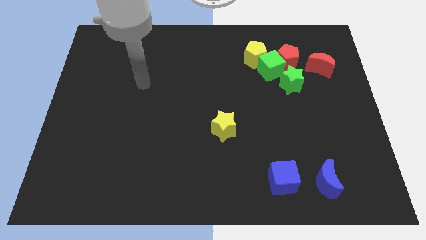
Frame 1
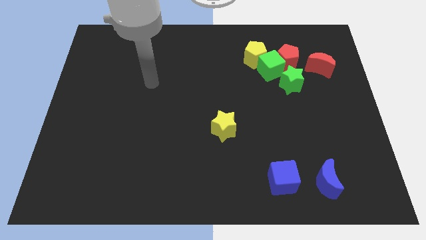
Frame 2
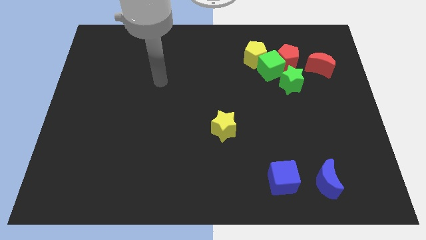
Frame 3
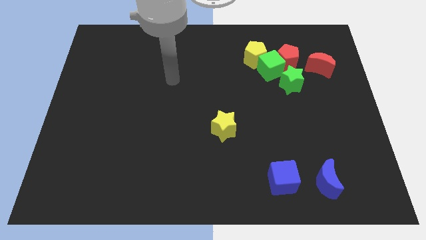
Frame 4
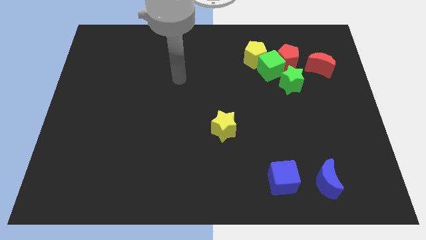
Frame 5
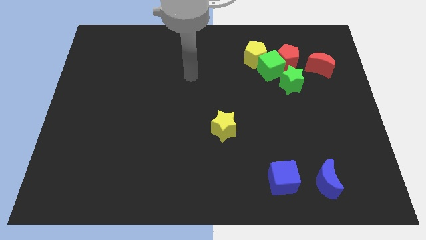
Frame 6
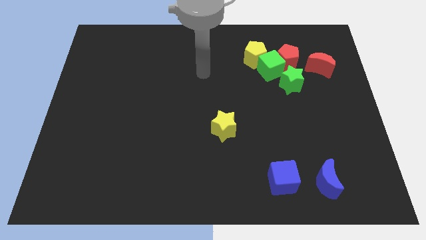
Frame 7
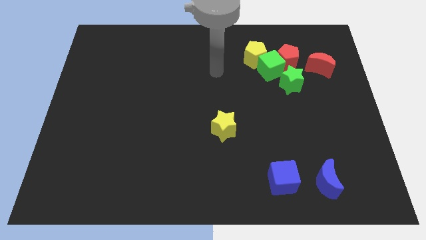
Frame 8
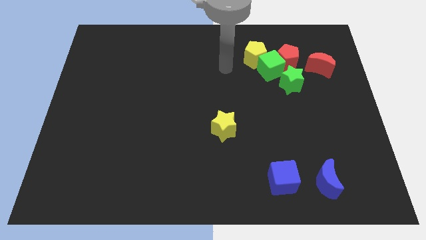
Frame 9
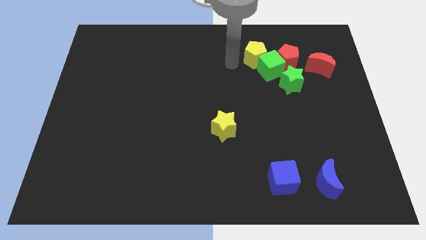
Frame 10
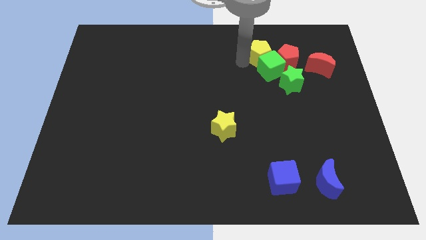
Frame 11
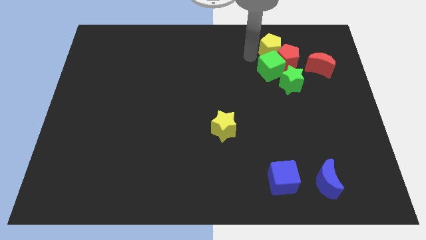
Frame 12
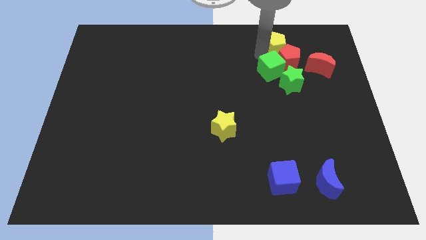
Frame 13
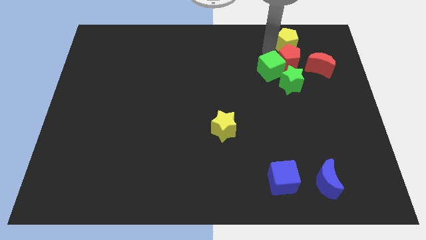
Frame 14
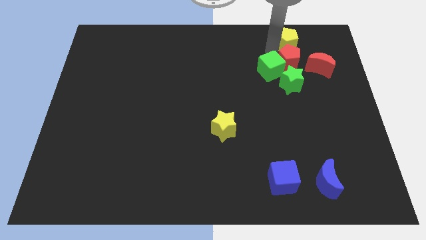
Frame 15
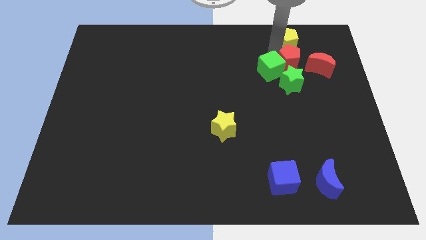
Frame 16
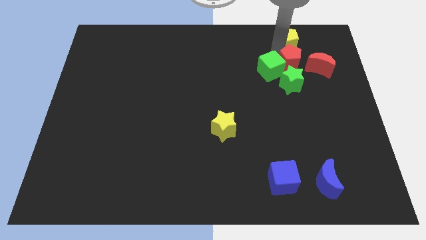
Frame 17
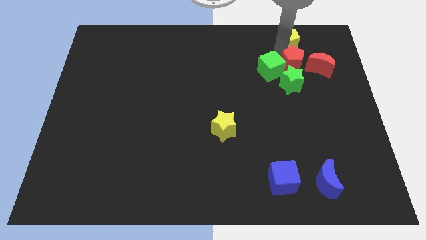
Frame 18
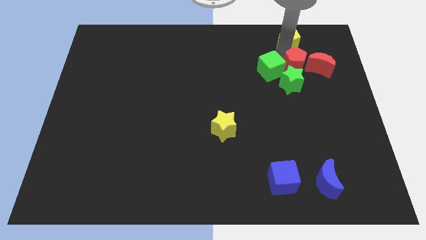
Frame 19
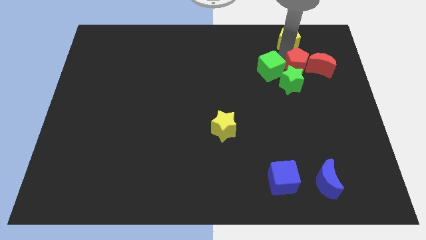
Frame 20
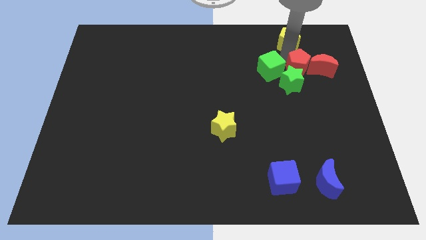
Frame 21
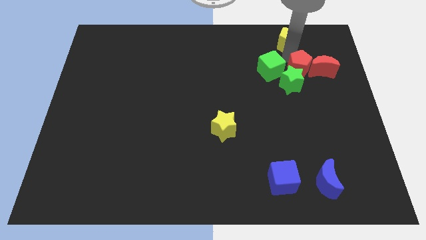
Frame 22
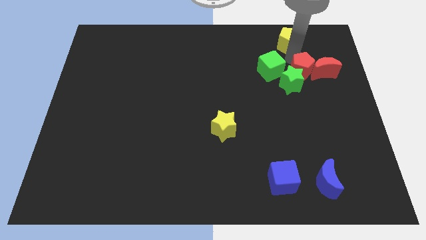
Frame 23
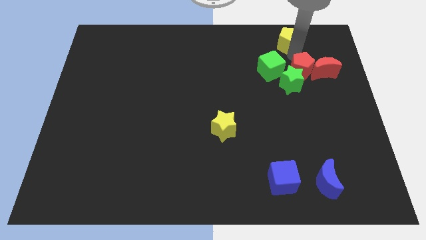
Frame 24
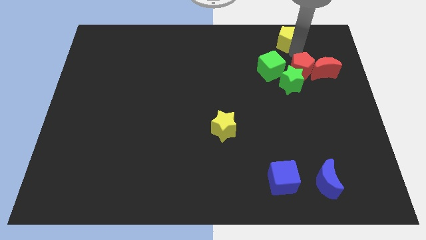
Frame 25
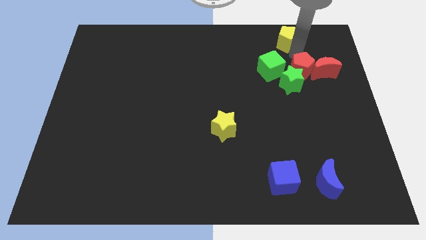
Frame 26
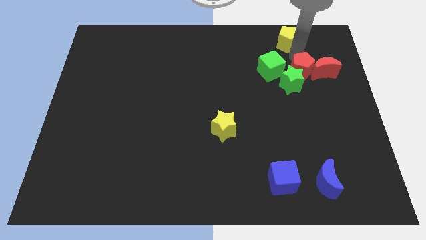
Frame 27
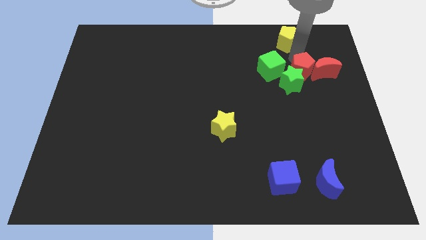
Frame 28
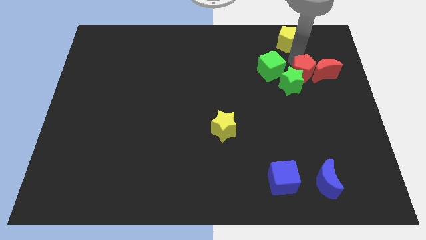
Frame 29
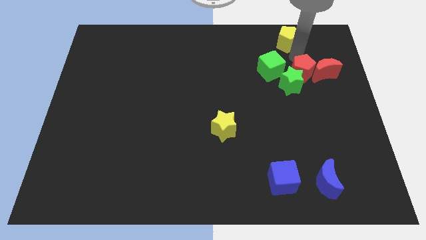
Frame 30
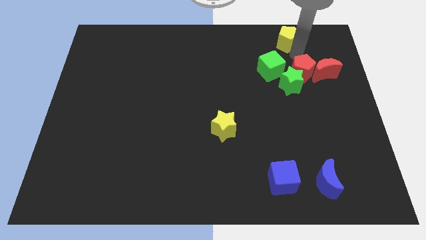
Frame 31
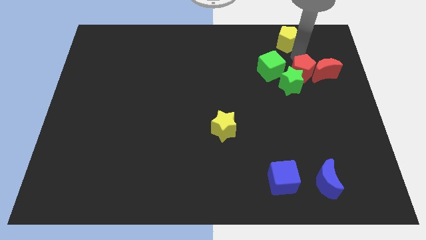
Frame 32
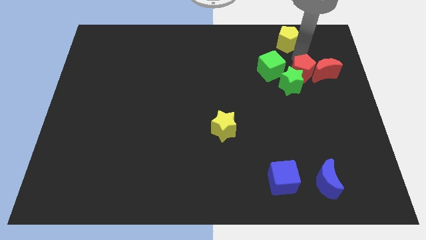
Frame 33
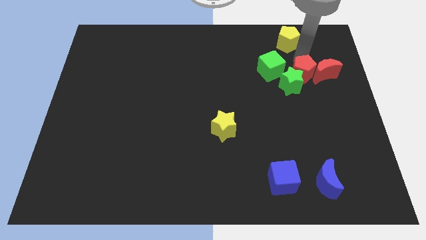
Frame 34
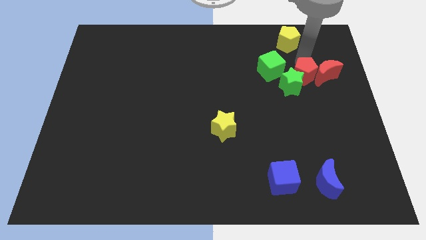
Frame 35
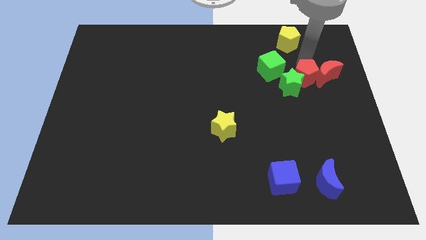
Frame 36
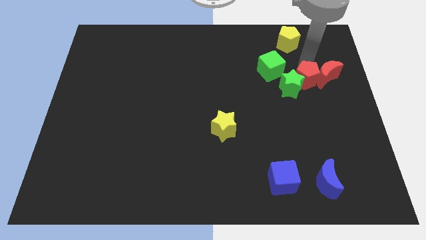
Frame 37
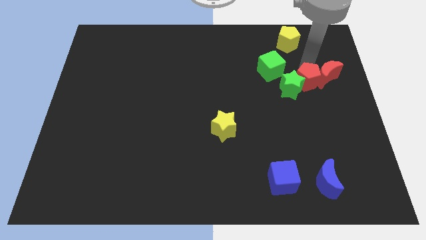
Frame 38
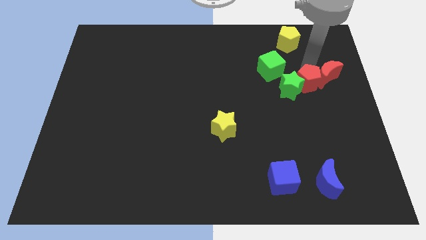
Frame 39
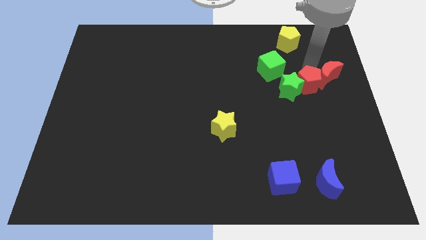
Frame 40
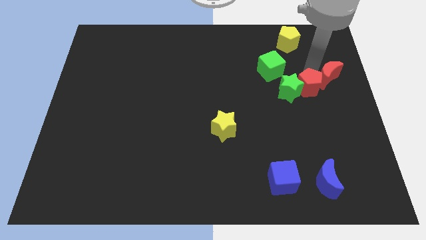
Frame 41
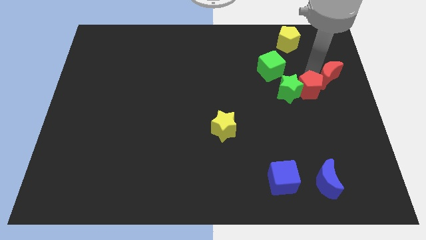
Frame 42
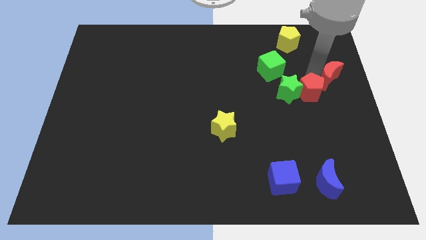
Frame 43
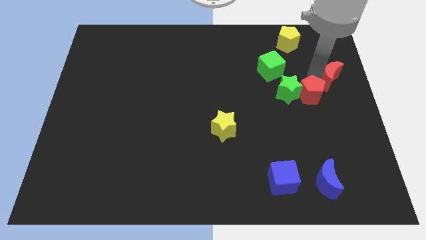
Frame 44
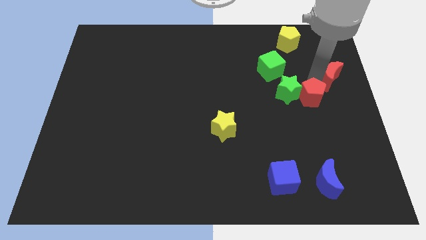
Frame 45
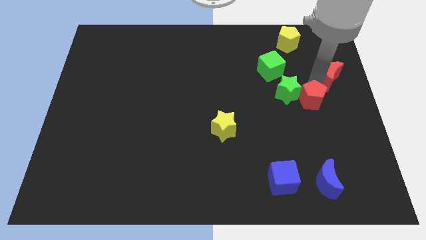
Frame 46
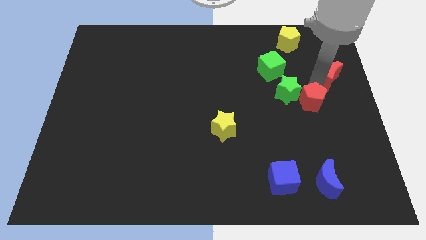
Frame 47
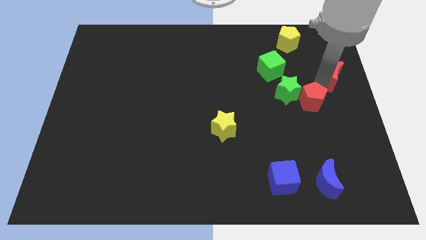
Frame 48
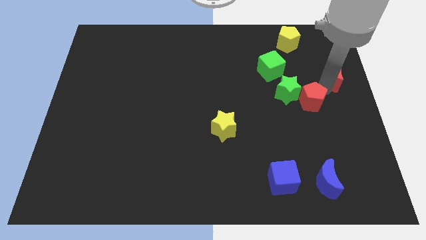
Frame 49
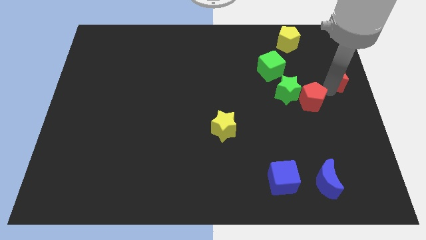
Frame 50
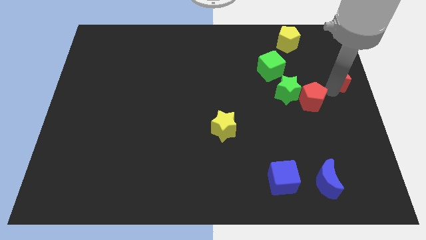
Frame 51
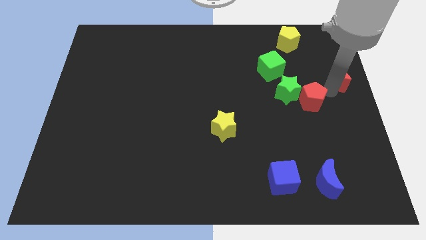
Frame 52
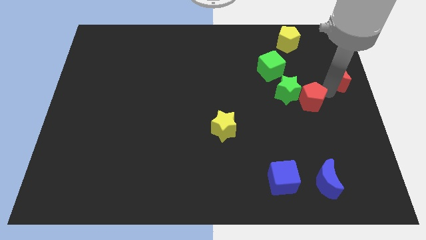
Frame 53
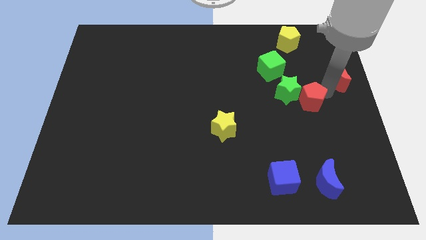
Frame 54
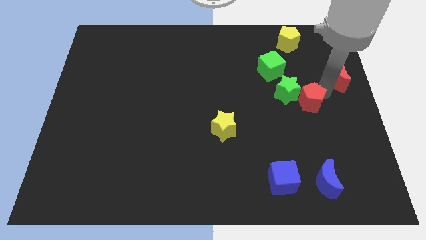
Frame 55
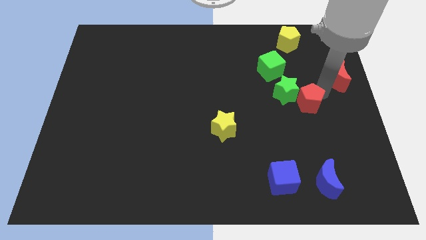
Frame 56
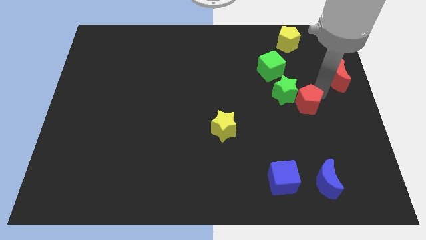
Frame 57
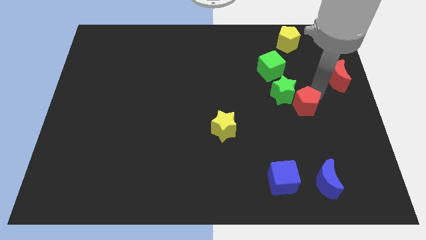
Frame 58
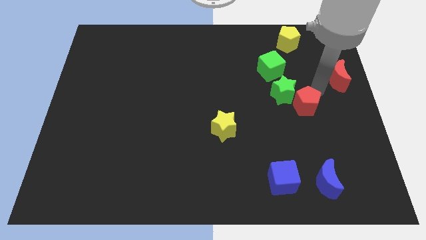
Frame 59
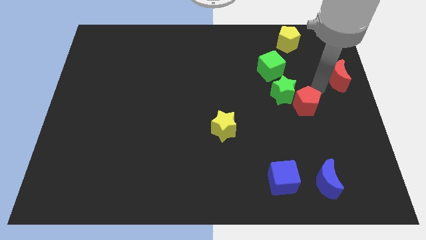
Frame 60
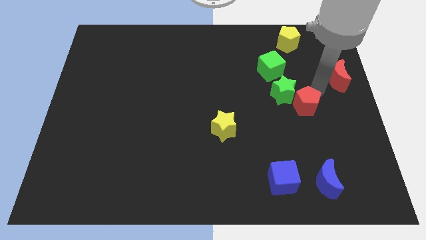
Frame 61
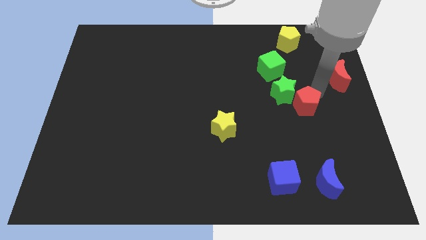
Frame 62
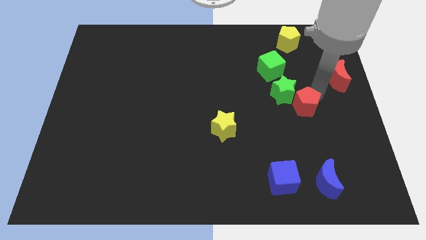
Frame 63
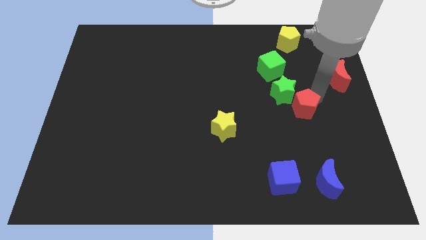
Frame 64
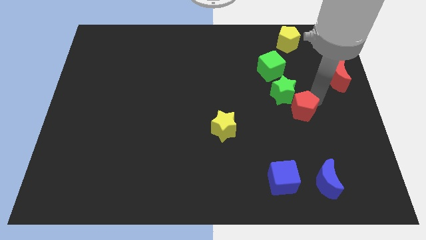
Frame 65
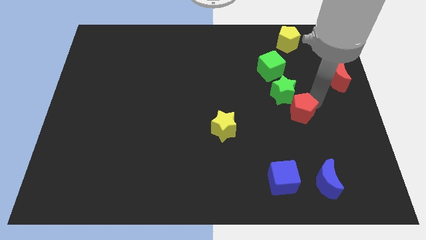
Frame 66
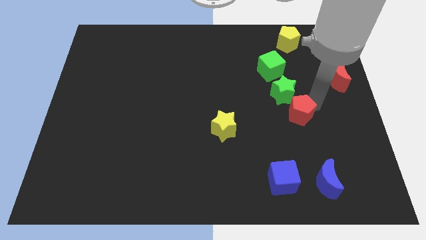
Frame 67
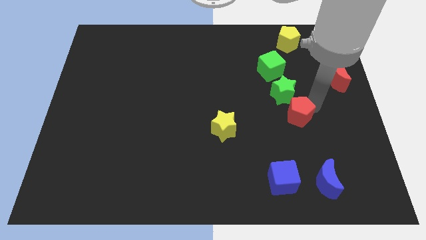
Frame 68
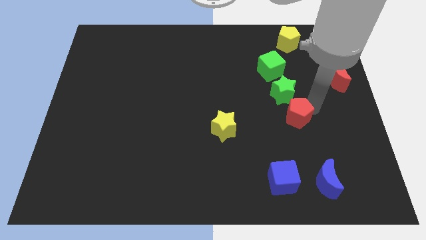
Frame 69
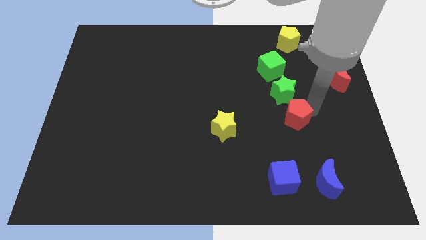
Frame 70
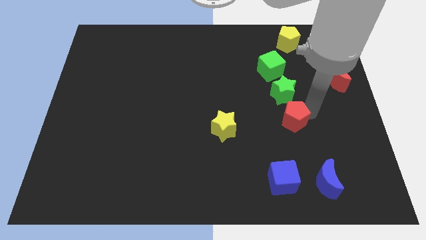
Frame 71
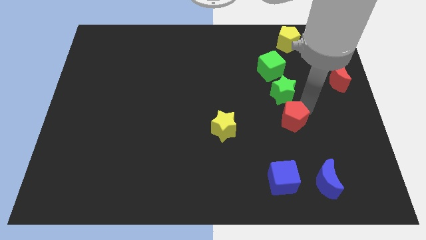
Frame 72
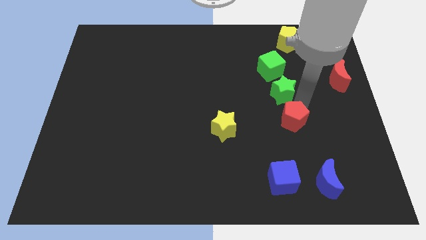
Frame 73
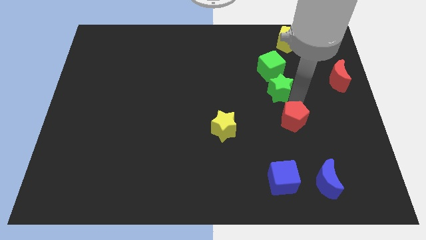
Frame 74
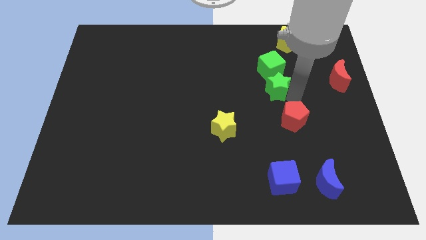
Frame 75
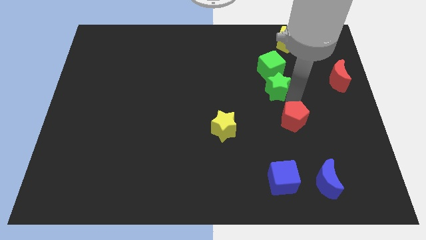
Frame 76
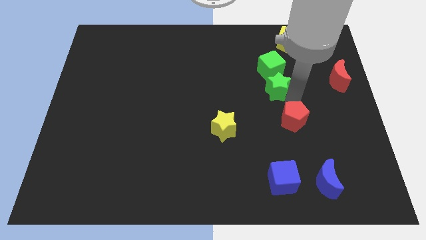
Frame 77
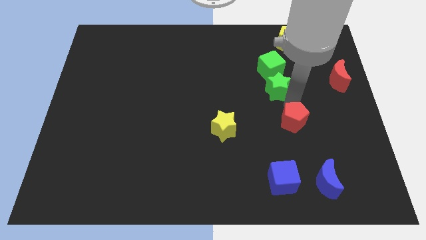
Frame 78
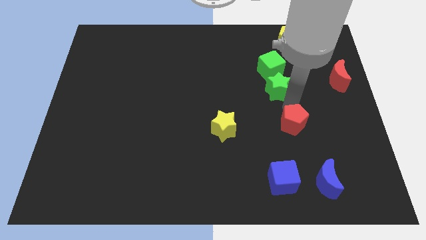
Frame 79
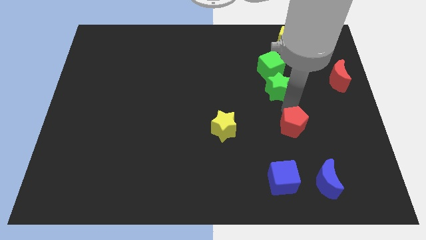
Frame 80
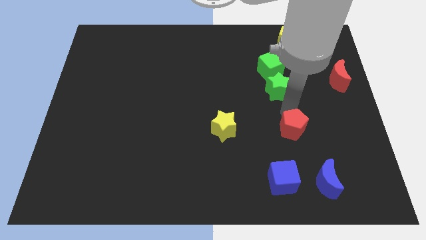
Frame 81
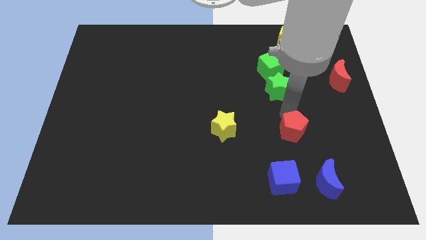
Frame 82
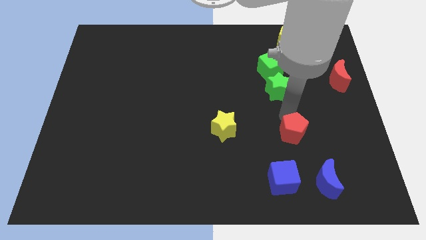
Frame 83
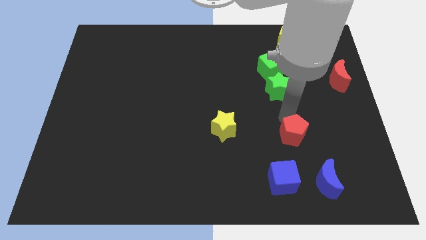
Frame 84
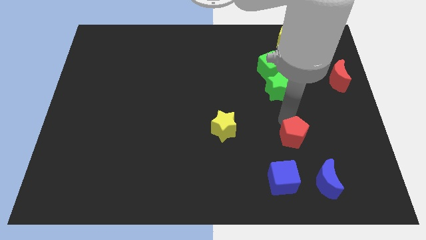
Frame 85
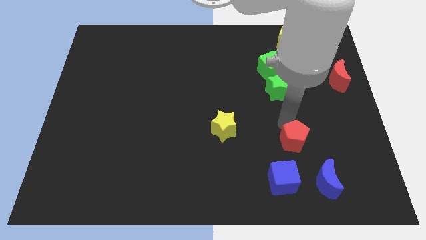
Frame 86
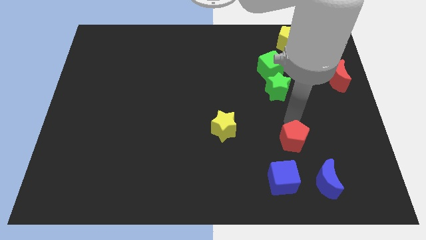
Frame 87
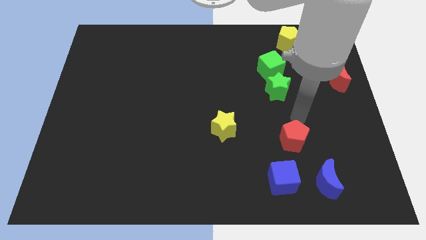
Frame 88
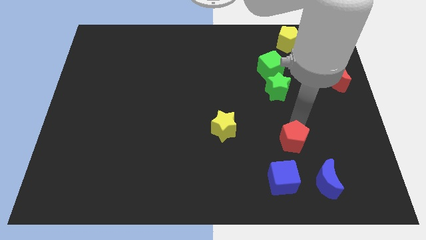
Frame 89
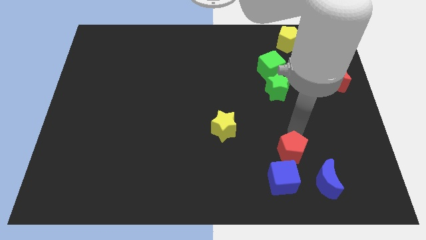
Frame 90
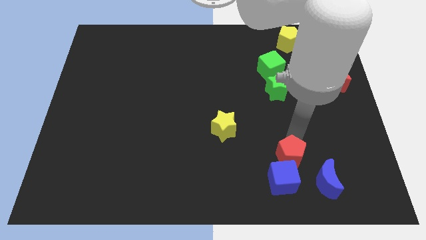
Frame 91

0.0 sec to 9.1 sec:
slide the red pentagon towards the blue cube
